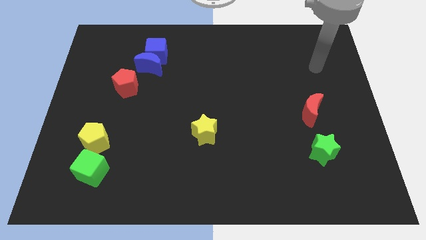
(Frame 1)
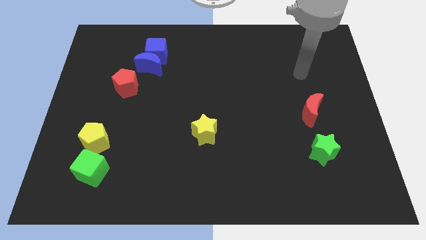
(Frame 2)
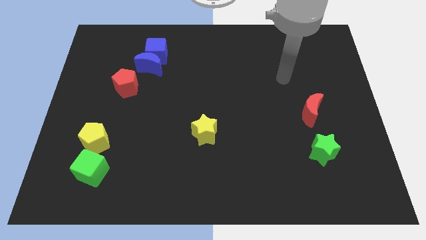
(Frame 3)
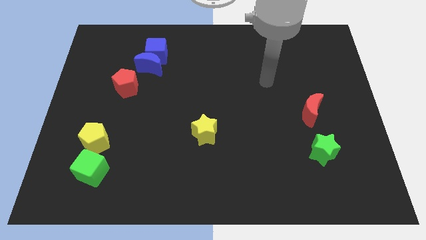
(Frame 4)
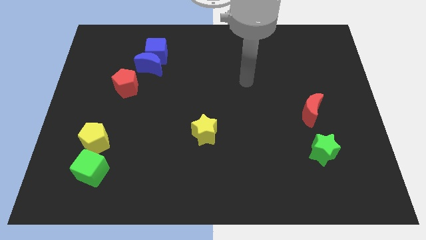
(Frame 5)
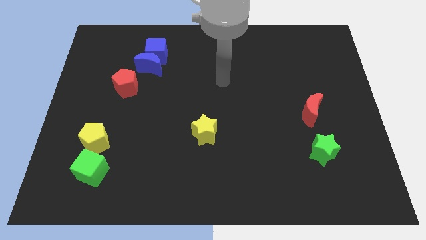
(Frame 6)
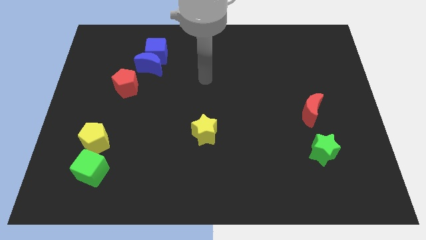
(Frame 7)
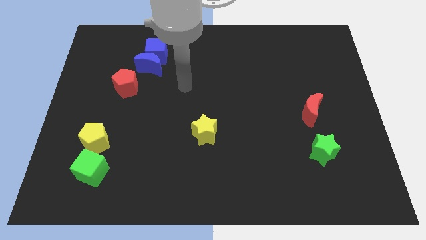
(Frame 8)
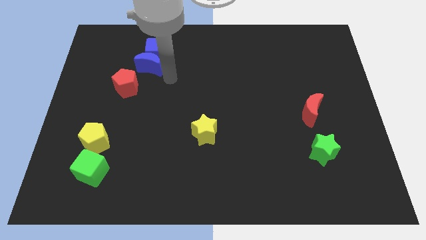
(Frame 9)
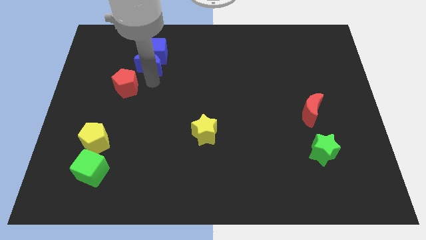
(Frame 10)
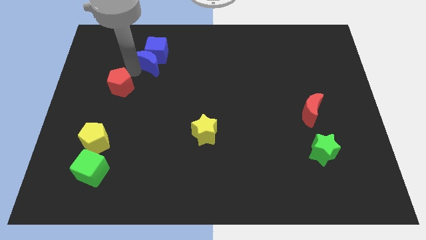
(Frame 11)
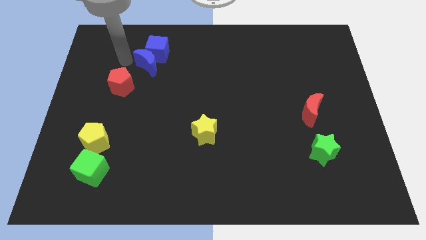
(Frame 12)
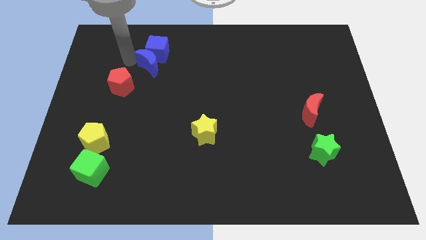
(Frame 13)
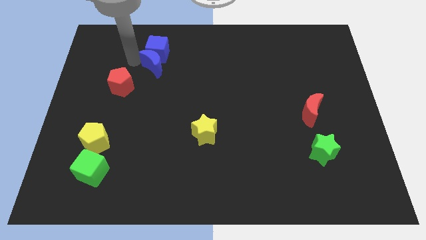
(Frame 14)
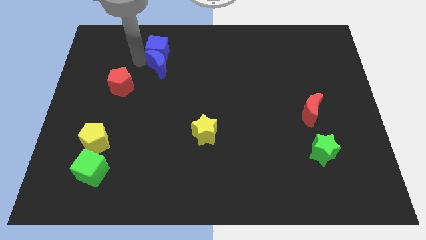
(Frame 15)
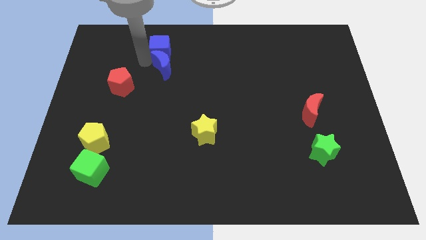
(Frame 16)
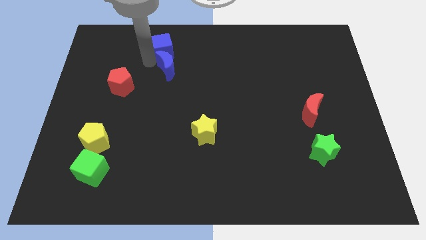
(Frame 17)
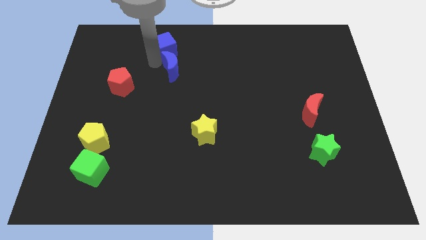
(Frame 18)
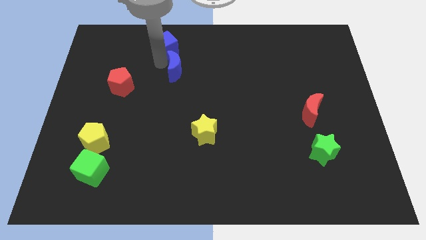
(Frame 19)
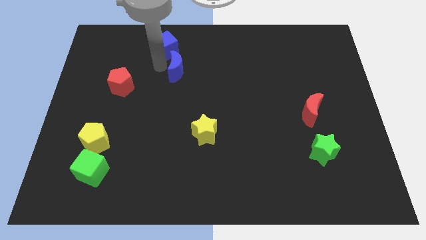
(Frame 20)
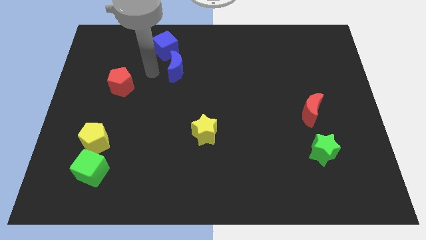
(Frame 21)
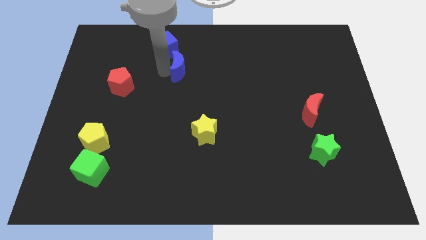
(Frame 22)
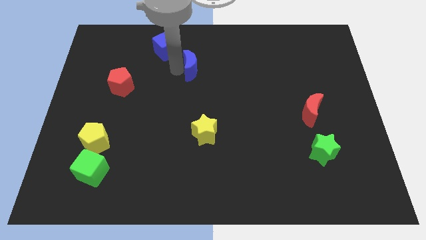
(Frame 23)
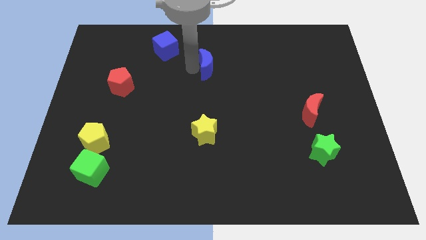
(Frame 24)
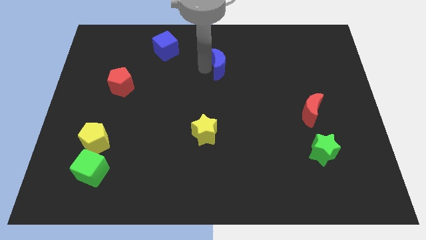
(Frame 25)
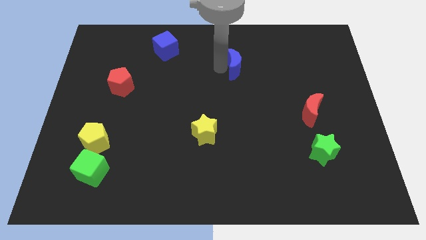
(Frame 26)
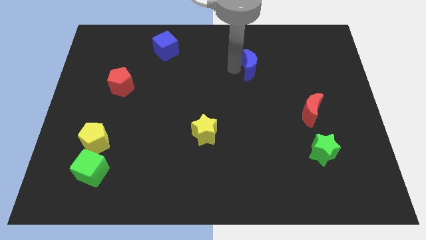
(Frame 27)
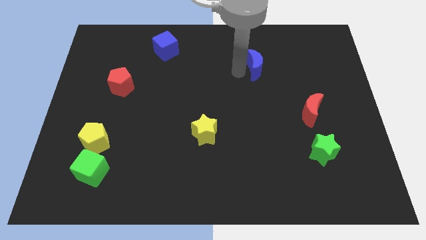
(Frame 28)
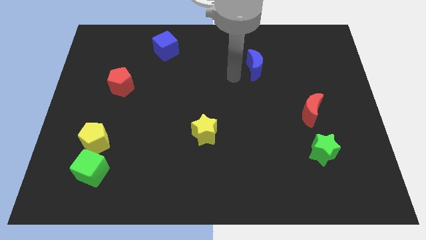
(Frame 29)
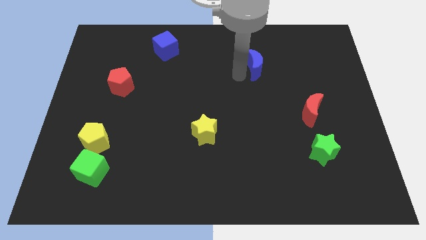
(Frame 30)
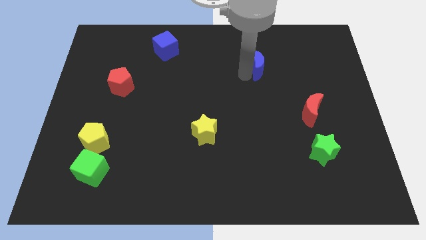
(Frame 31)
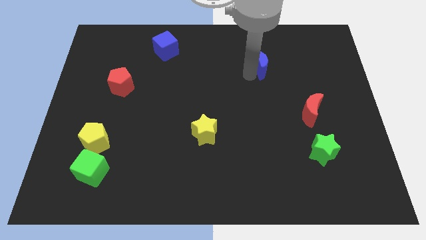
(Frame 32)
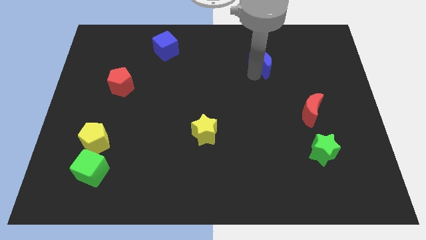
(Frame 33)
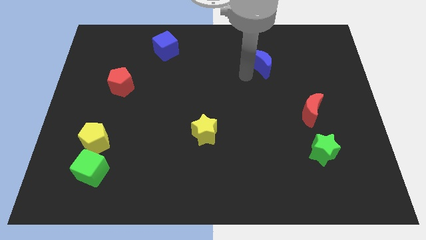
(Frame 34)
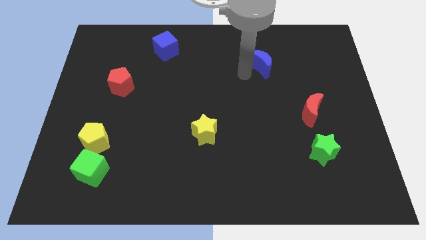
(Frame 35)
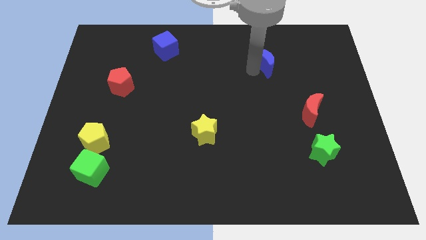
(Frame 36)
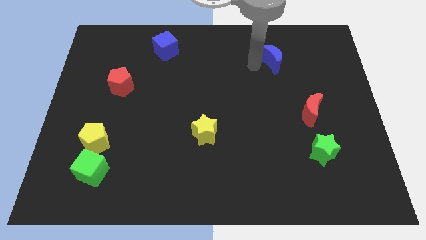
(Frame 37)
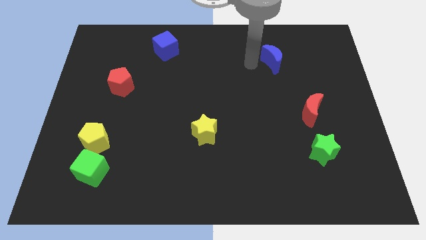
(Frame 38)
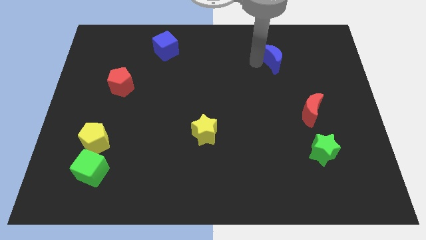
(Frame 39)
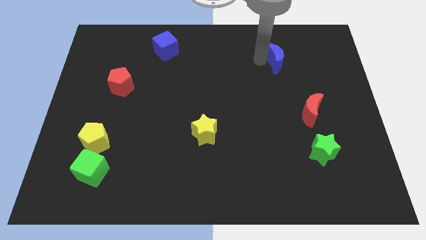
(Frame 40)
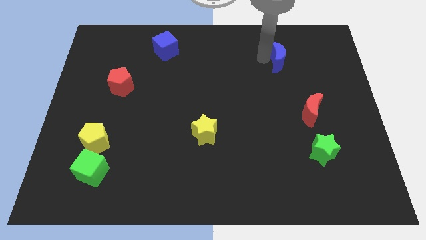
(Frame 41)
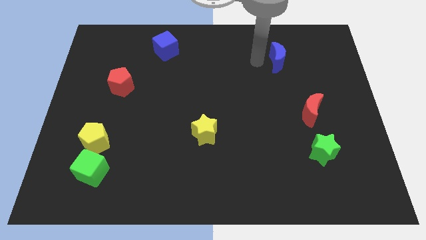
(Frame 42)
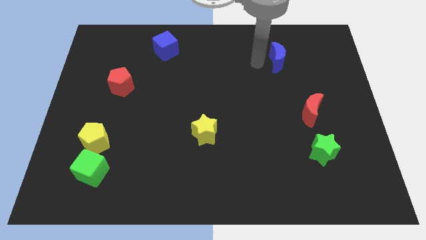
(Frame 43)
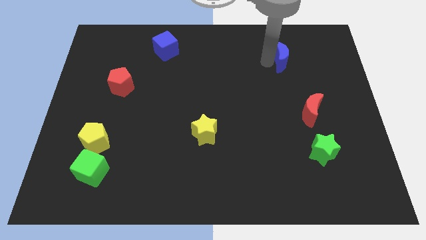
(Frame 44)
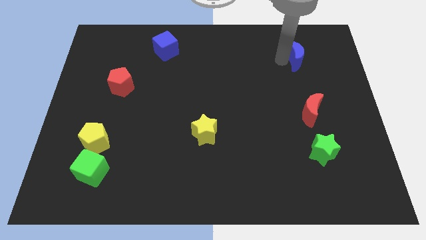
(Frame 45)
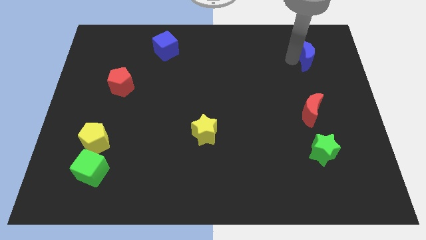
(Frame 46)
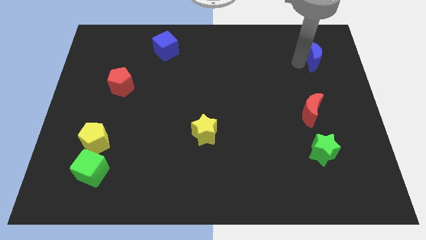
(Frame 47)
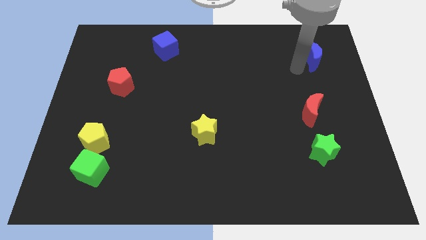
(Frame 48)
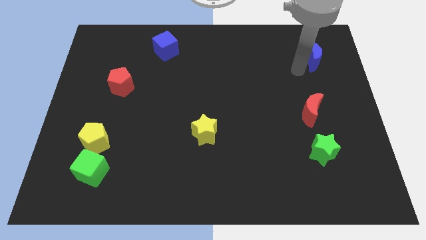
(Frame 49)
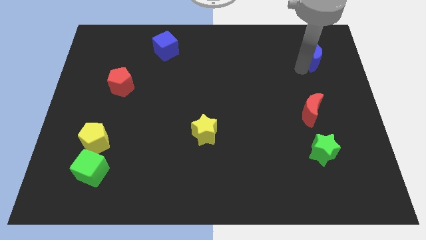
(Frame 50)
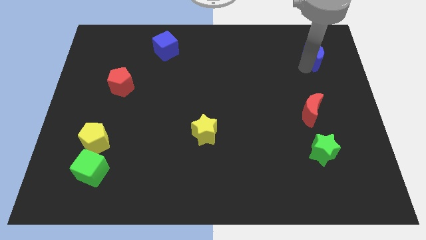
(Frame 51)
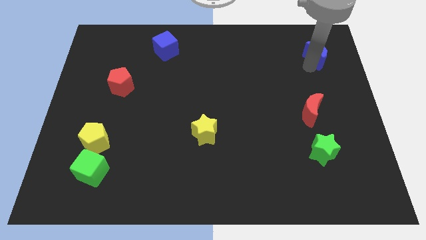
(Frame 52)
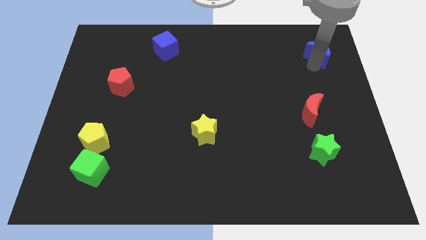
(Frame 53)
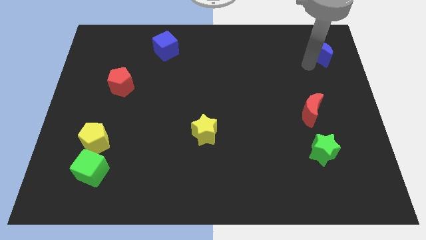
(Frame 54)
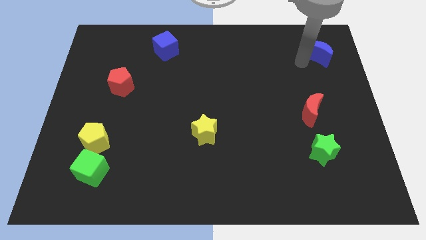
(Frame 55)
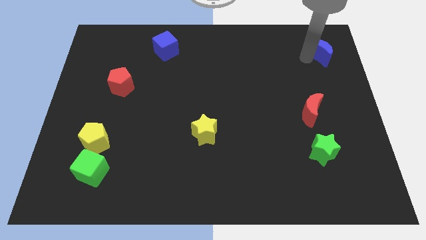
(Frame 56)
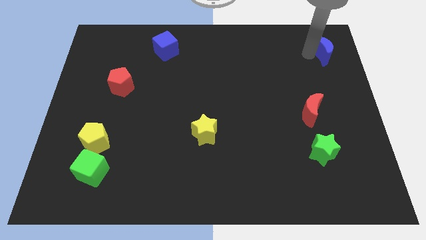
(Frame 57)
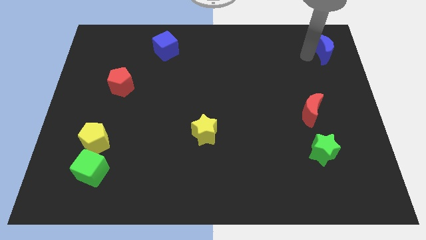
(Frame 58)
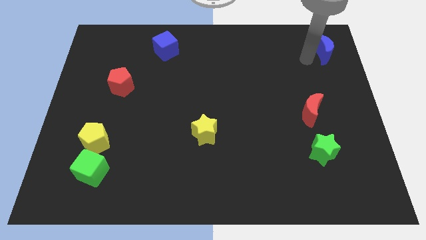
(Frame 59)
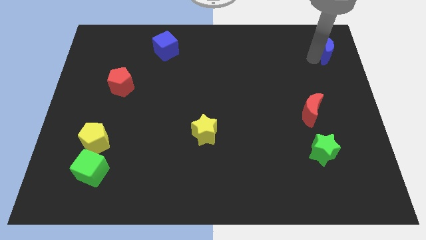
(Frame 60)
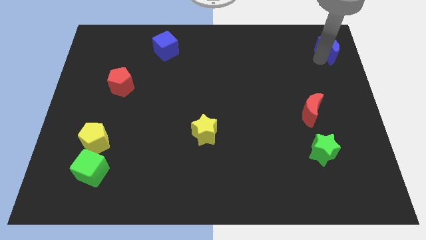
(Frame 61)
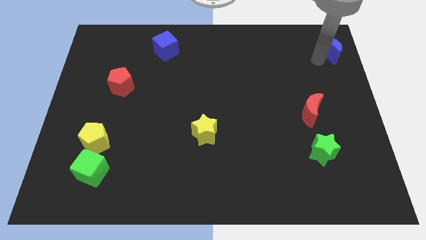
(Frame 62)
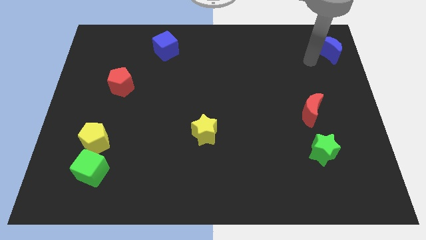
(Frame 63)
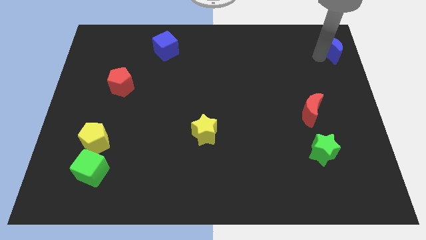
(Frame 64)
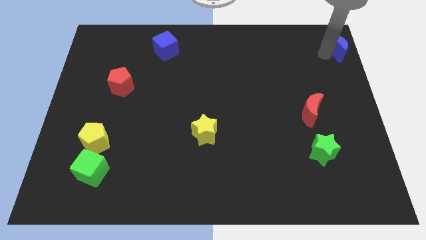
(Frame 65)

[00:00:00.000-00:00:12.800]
slide the blue moon to the upper right corner

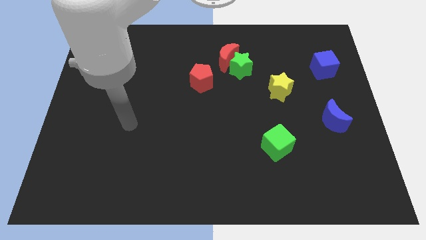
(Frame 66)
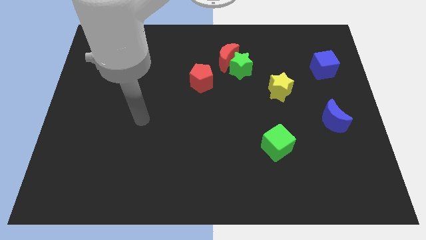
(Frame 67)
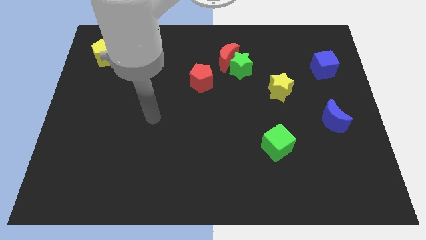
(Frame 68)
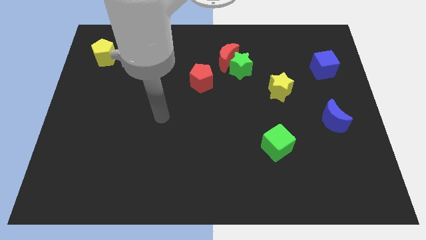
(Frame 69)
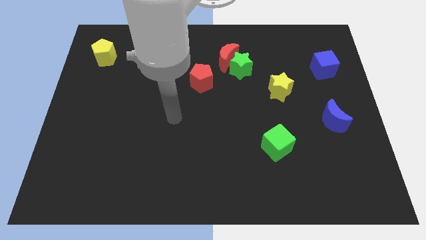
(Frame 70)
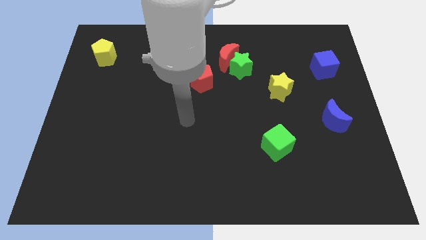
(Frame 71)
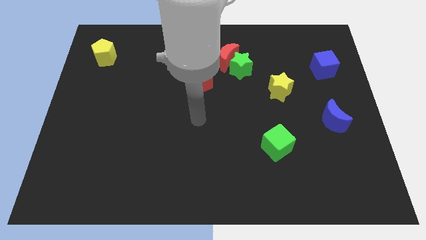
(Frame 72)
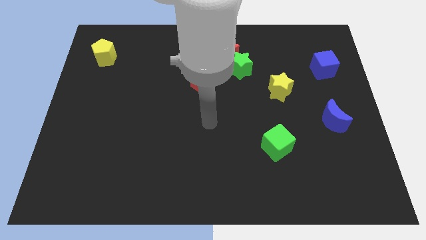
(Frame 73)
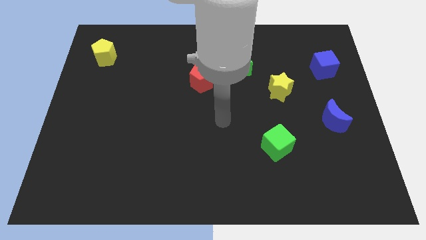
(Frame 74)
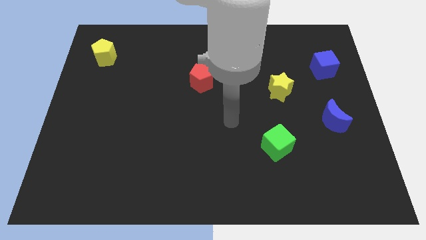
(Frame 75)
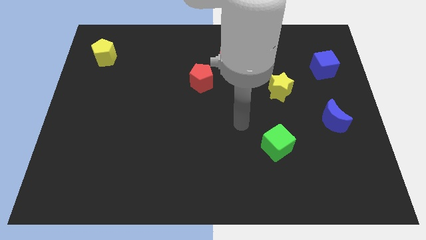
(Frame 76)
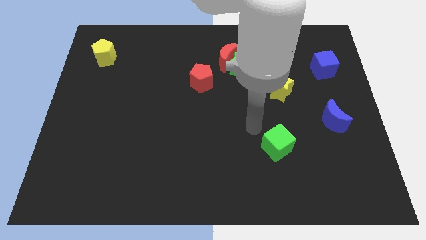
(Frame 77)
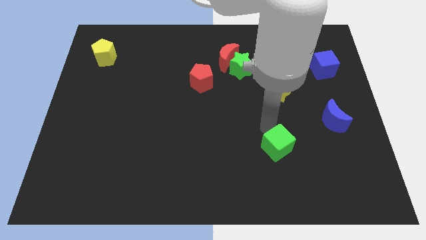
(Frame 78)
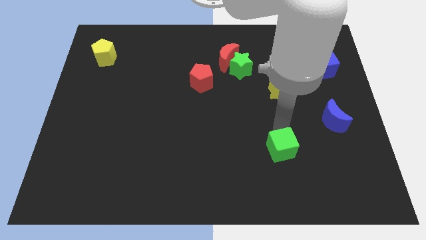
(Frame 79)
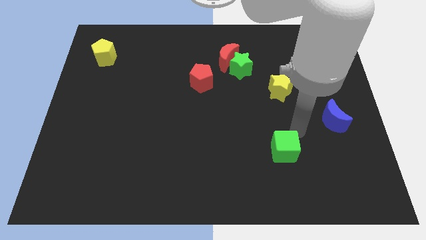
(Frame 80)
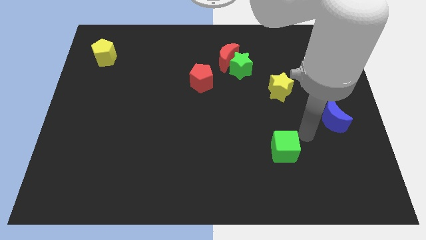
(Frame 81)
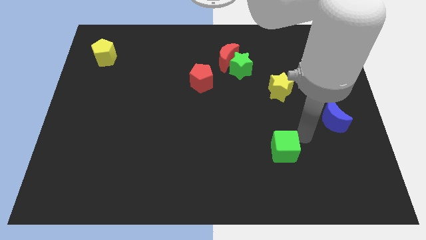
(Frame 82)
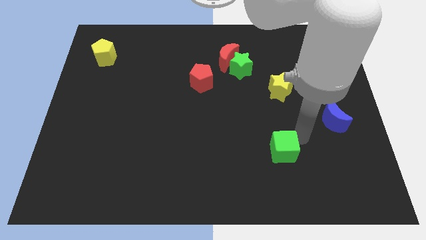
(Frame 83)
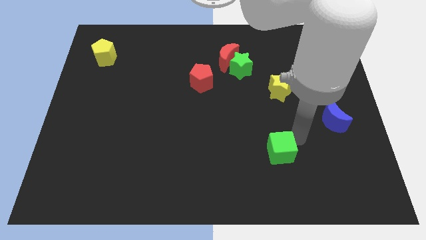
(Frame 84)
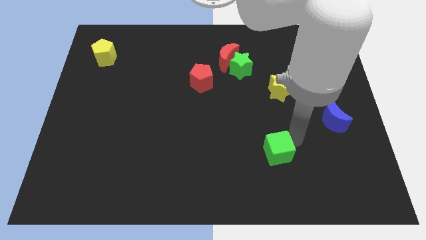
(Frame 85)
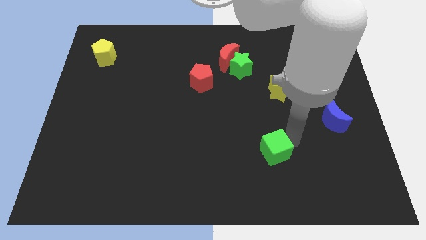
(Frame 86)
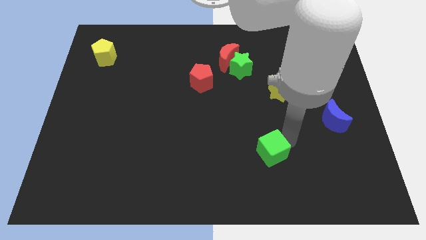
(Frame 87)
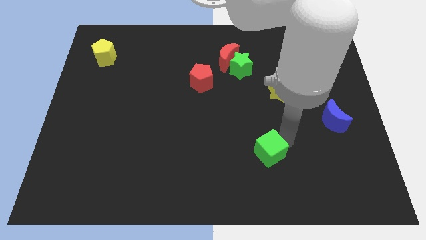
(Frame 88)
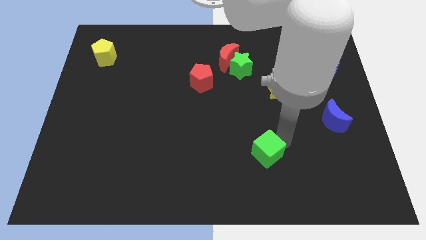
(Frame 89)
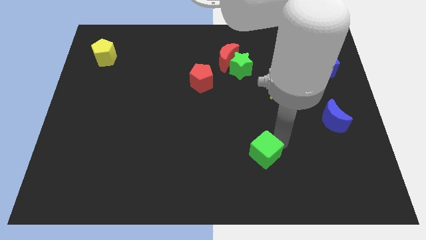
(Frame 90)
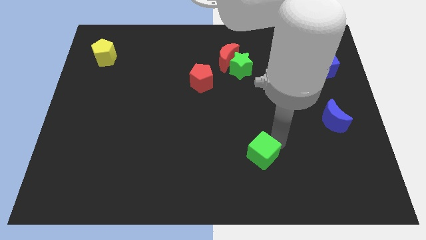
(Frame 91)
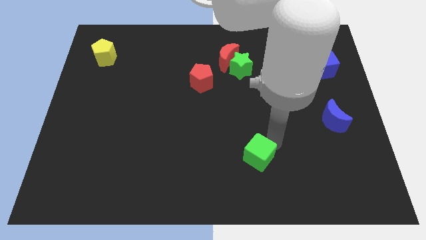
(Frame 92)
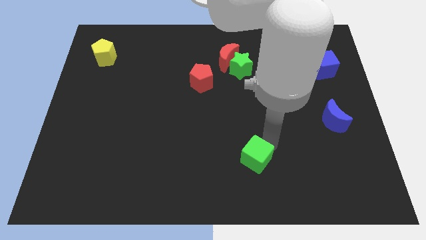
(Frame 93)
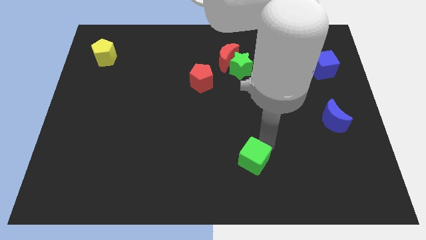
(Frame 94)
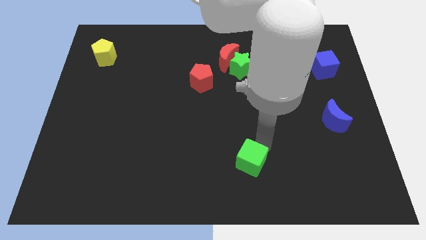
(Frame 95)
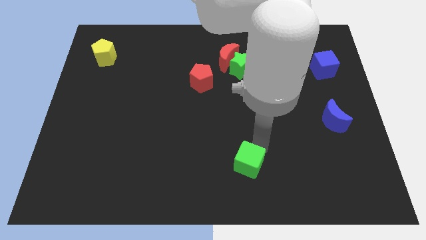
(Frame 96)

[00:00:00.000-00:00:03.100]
slide the green cube to the bottom
